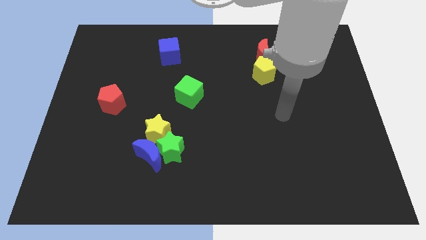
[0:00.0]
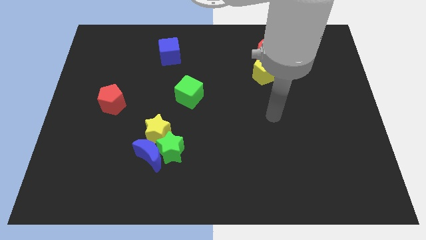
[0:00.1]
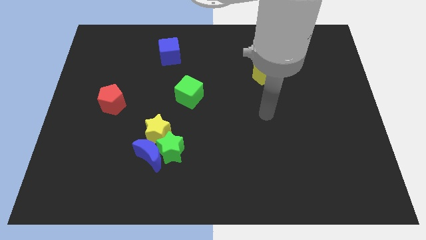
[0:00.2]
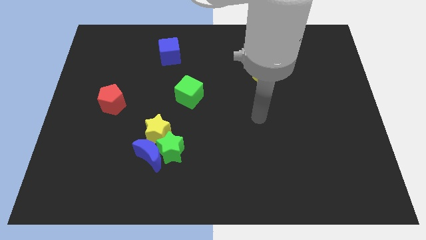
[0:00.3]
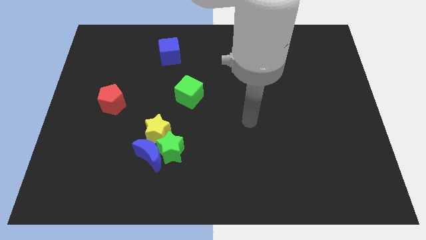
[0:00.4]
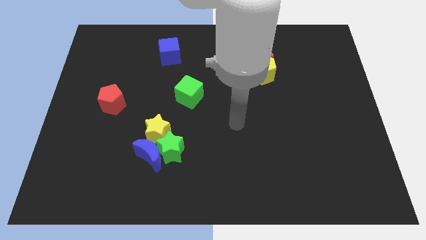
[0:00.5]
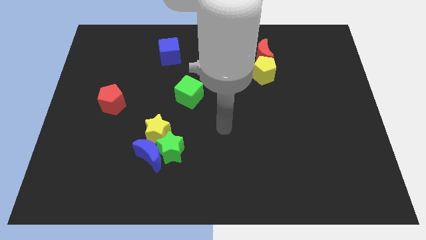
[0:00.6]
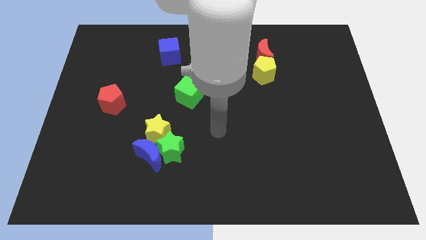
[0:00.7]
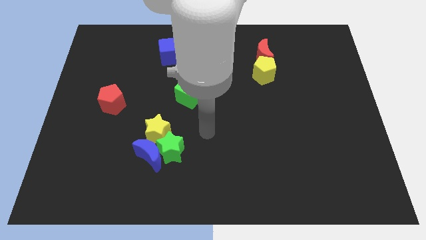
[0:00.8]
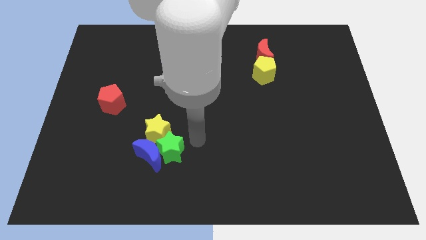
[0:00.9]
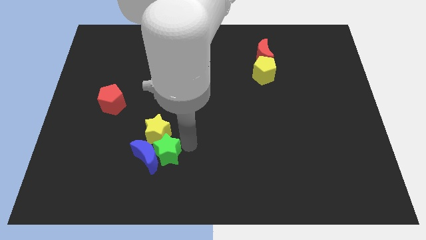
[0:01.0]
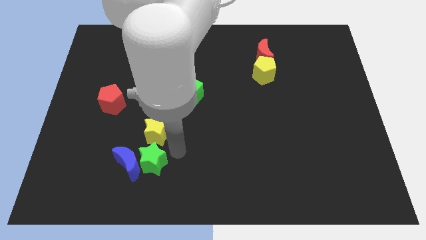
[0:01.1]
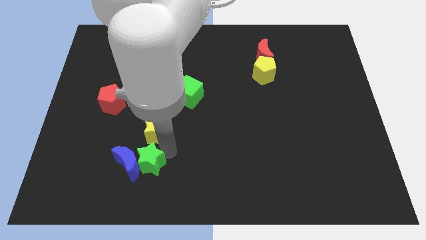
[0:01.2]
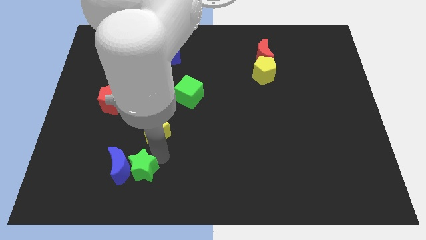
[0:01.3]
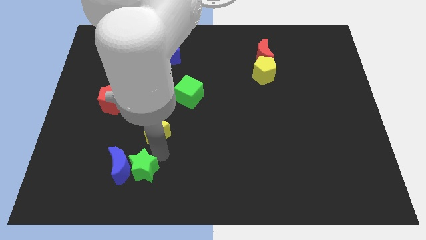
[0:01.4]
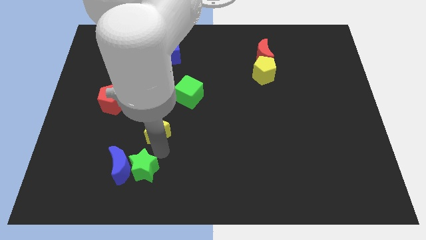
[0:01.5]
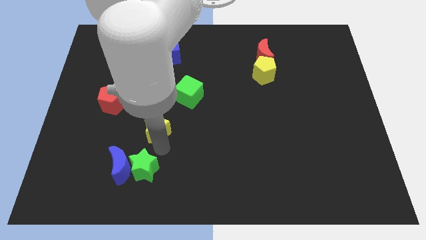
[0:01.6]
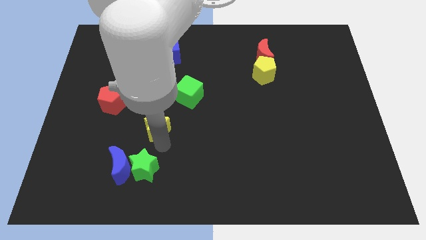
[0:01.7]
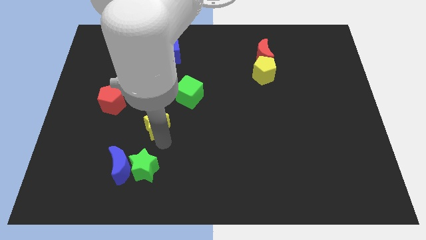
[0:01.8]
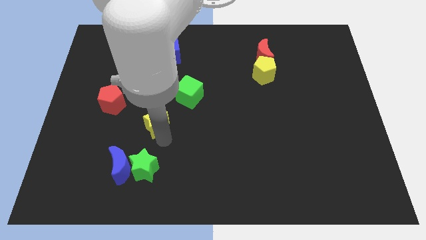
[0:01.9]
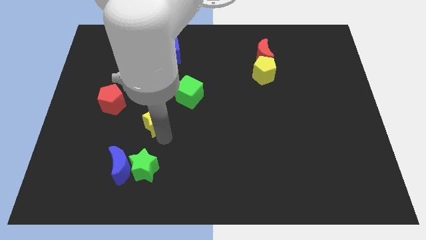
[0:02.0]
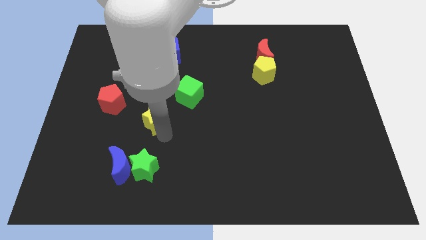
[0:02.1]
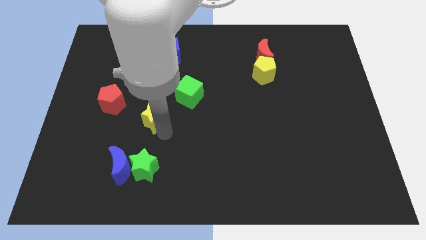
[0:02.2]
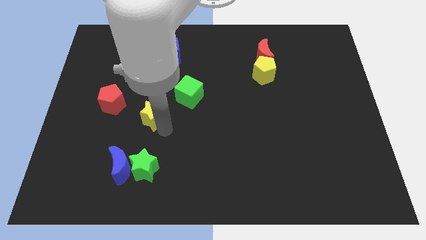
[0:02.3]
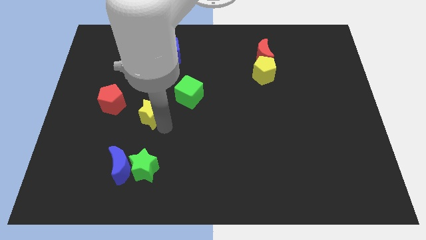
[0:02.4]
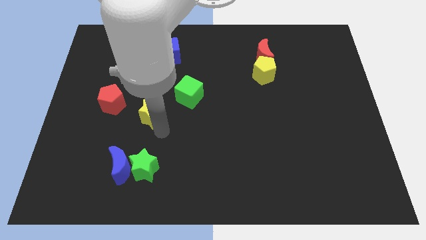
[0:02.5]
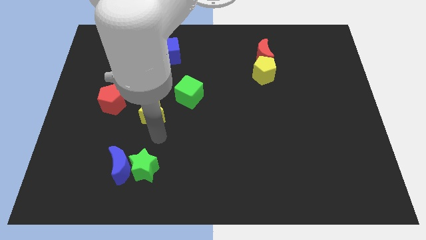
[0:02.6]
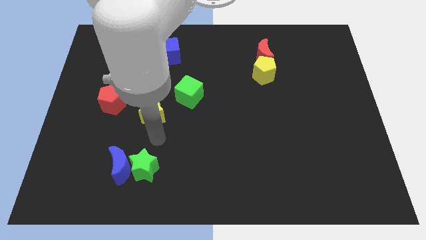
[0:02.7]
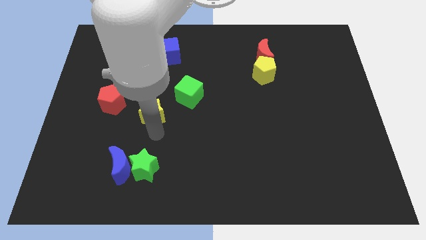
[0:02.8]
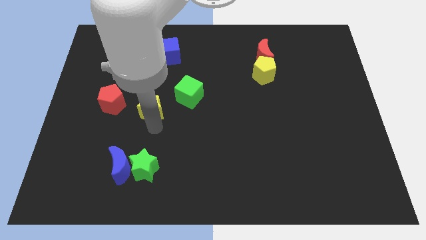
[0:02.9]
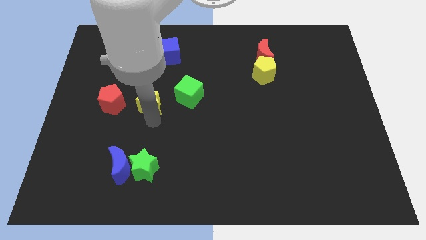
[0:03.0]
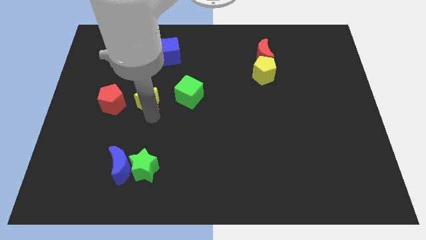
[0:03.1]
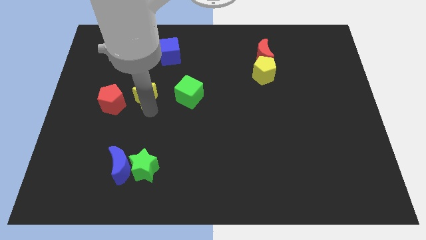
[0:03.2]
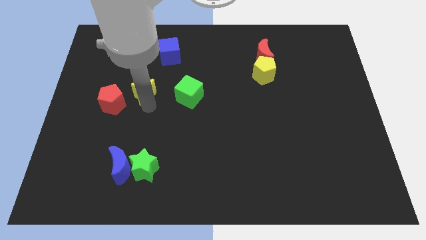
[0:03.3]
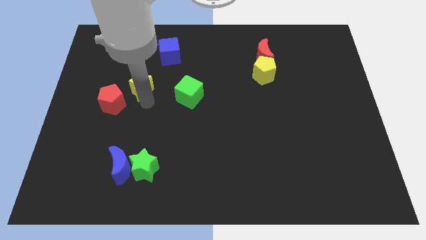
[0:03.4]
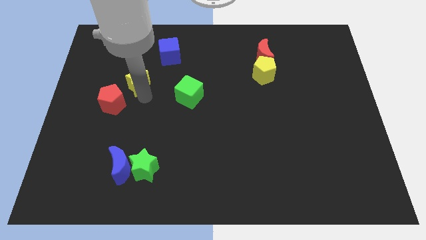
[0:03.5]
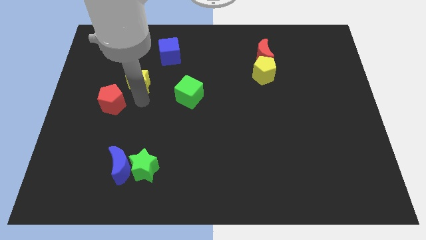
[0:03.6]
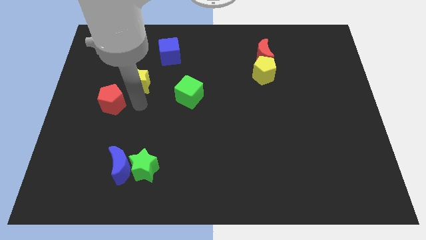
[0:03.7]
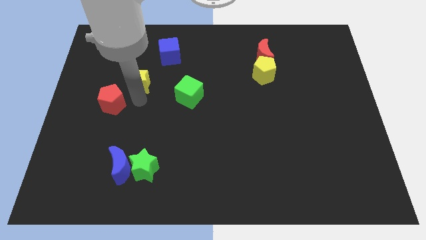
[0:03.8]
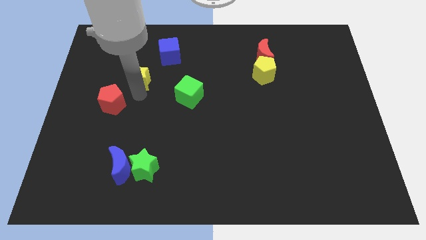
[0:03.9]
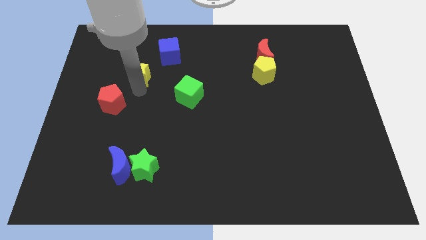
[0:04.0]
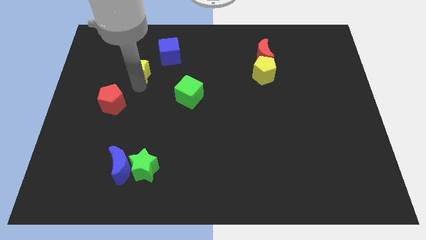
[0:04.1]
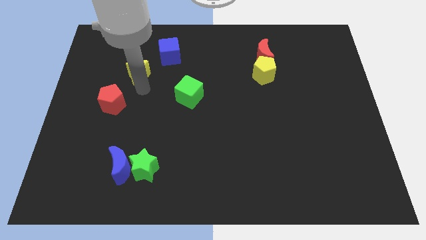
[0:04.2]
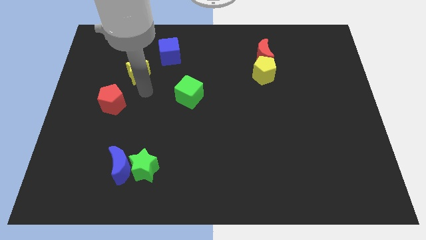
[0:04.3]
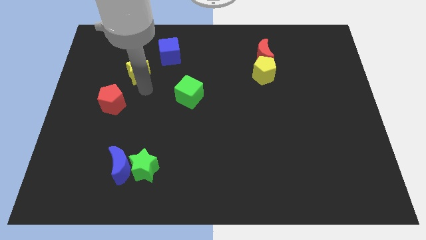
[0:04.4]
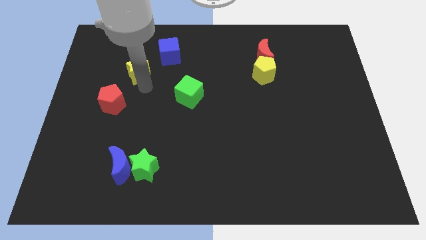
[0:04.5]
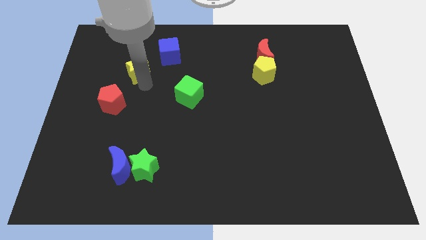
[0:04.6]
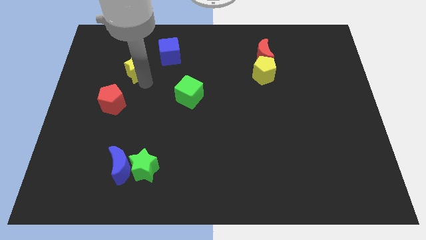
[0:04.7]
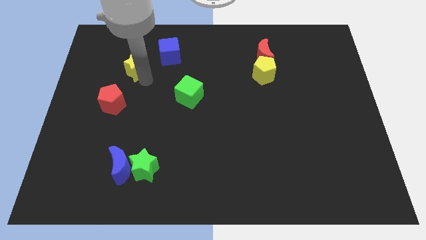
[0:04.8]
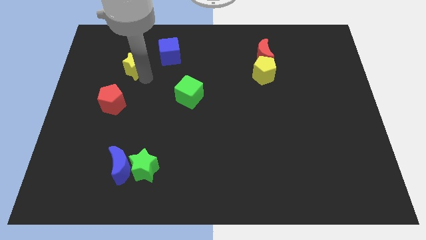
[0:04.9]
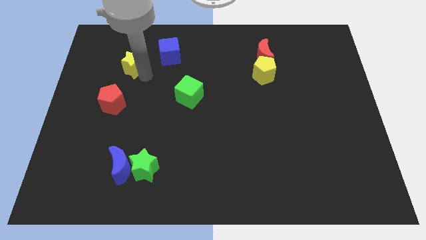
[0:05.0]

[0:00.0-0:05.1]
put the yellow star to the left of the blue cube

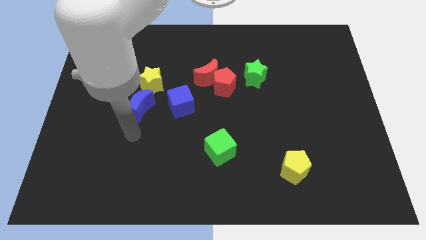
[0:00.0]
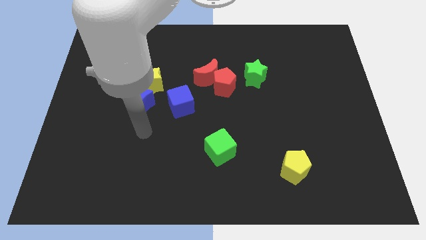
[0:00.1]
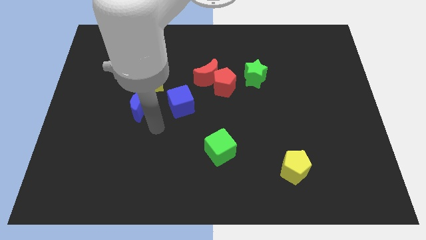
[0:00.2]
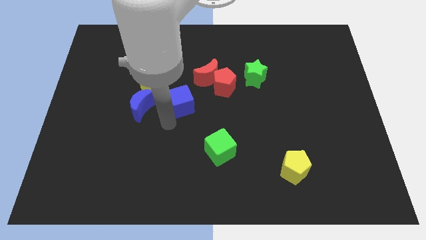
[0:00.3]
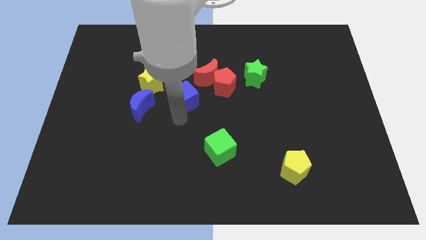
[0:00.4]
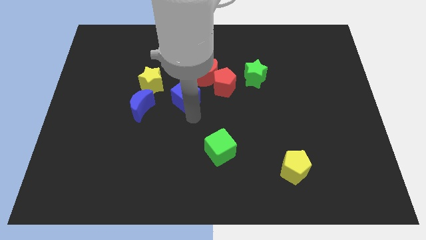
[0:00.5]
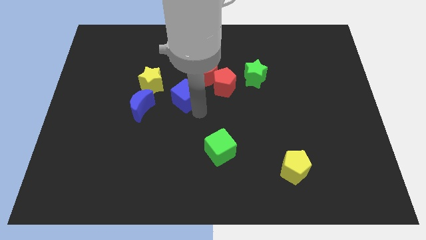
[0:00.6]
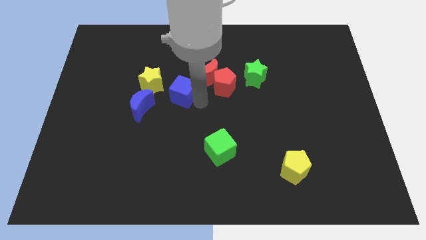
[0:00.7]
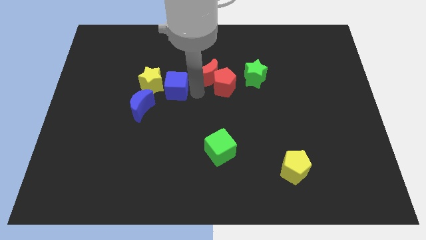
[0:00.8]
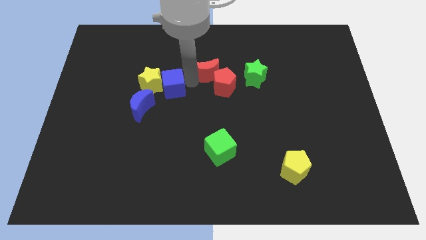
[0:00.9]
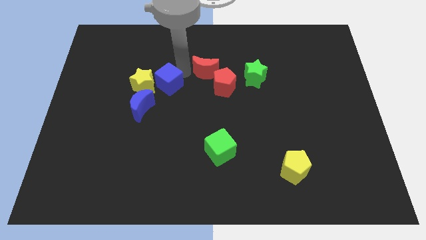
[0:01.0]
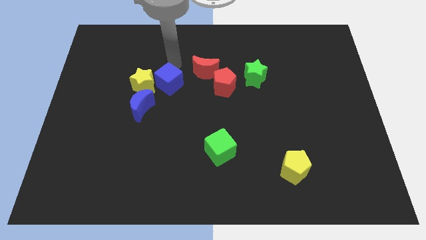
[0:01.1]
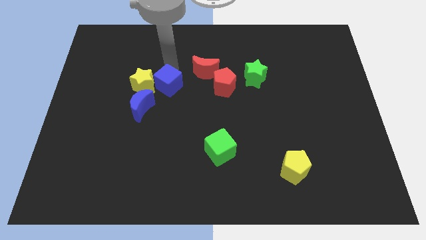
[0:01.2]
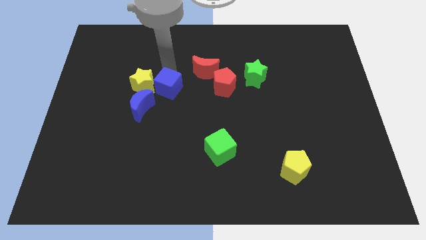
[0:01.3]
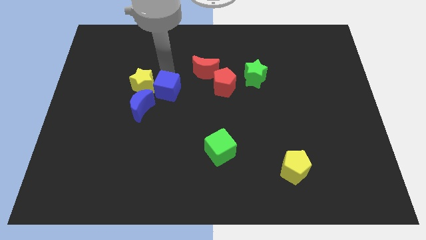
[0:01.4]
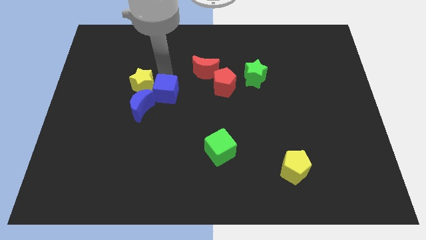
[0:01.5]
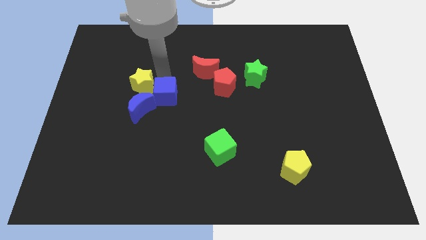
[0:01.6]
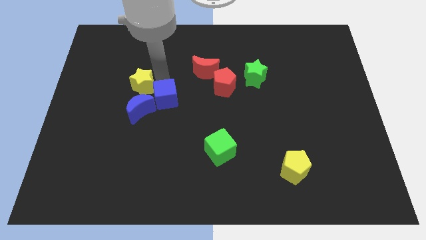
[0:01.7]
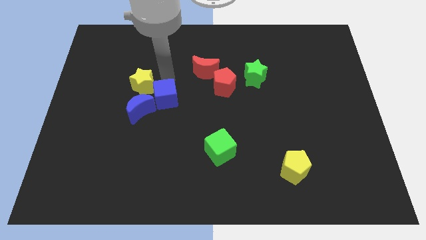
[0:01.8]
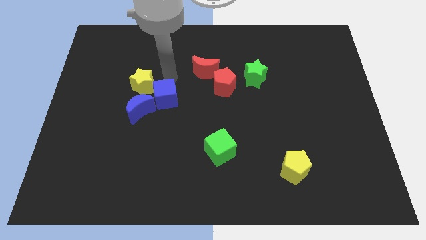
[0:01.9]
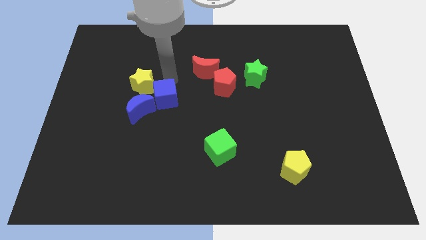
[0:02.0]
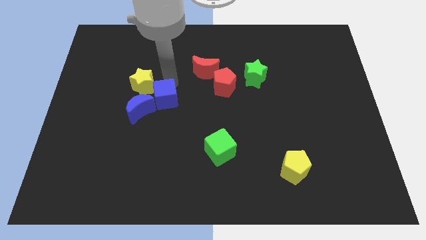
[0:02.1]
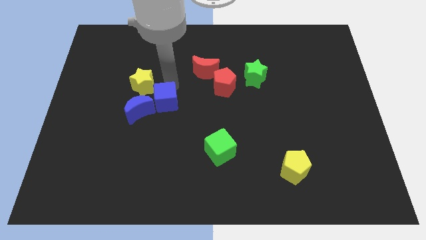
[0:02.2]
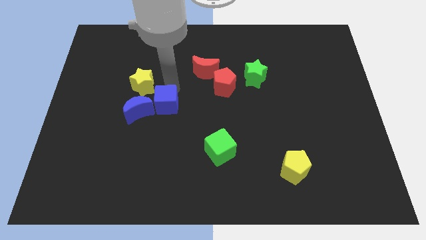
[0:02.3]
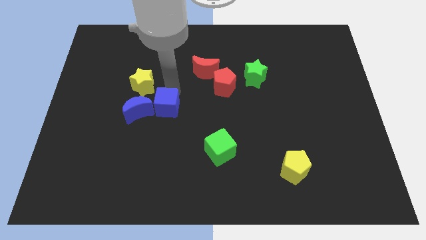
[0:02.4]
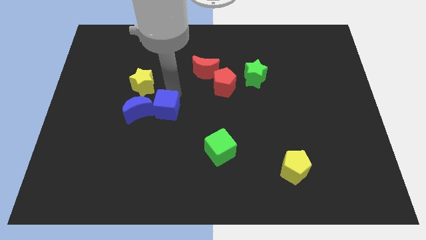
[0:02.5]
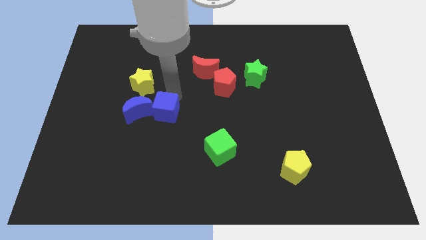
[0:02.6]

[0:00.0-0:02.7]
move the blue cube to the bottom right side of the blue moon
